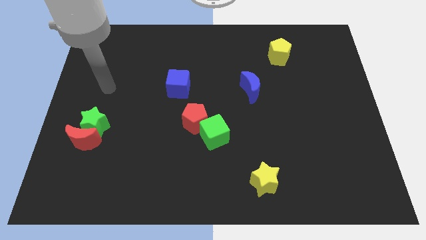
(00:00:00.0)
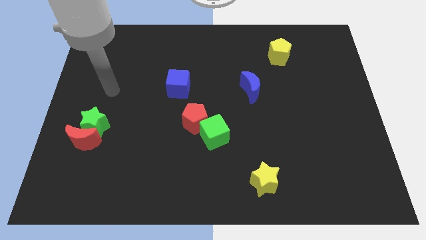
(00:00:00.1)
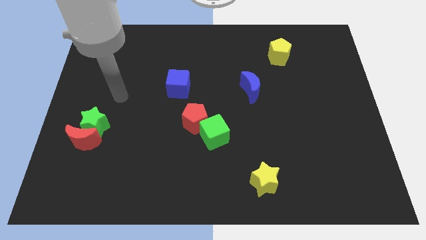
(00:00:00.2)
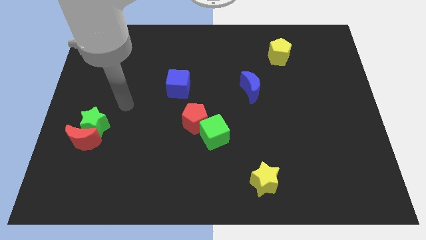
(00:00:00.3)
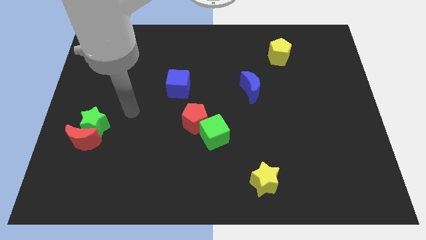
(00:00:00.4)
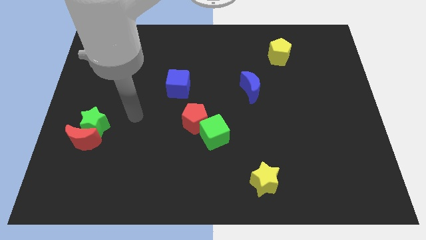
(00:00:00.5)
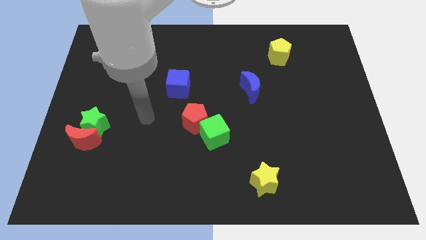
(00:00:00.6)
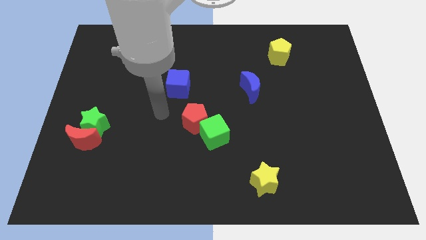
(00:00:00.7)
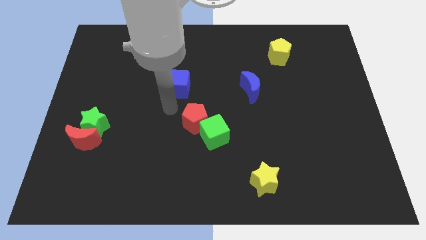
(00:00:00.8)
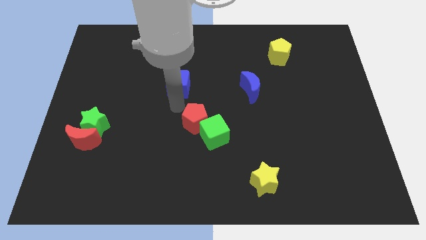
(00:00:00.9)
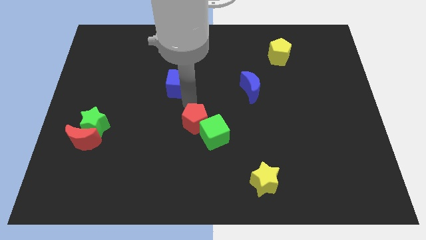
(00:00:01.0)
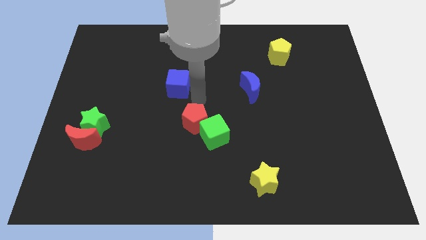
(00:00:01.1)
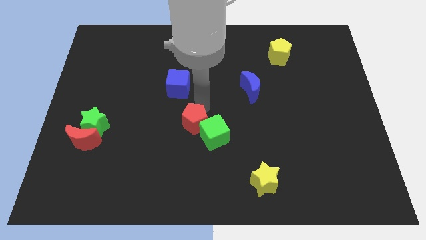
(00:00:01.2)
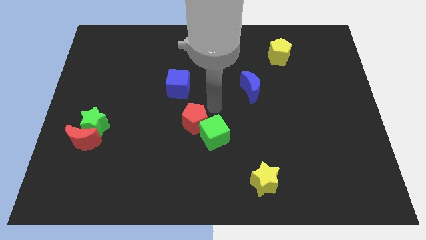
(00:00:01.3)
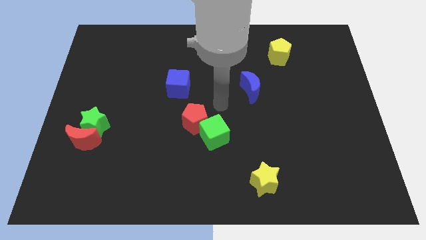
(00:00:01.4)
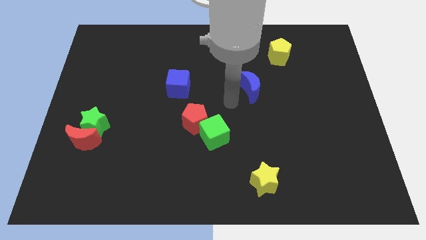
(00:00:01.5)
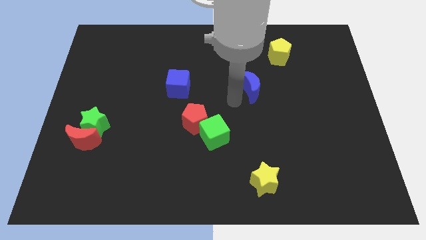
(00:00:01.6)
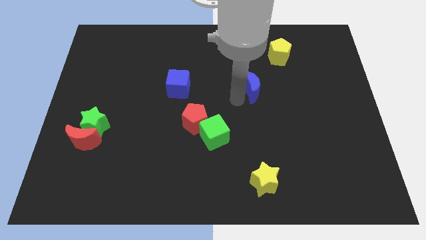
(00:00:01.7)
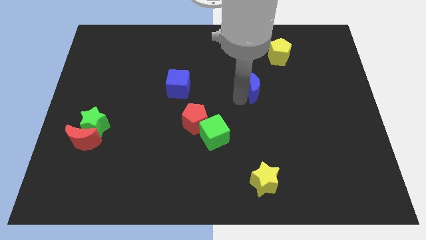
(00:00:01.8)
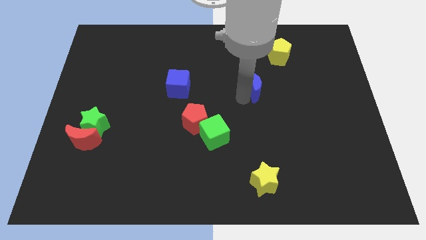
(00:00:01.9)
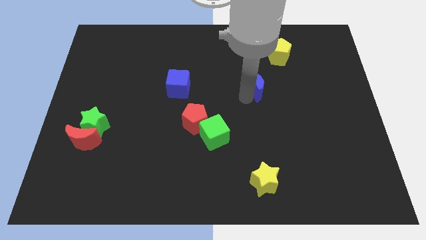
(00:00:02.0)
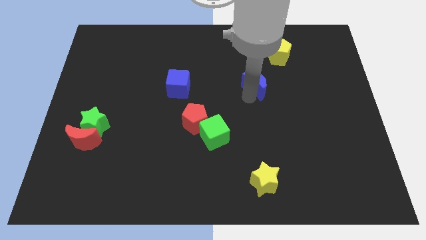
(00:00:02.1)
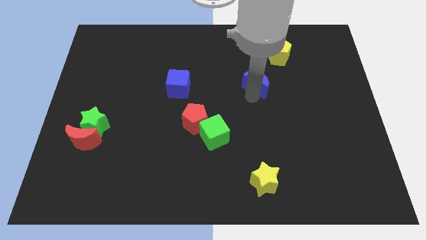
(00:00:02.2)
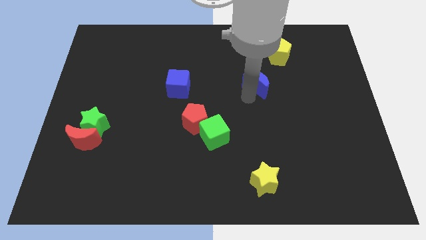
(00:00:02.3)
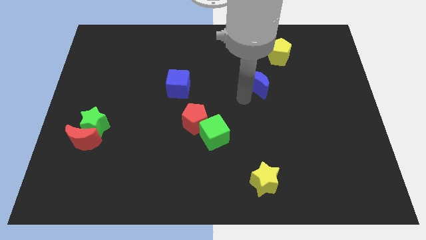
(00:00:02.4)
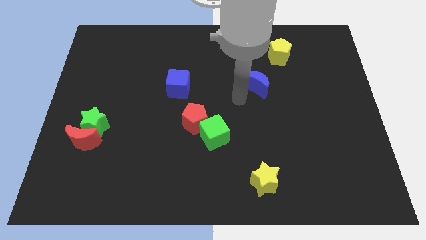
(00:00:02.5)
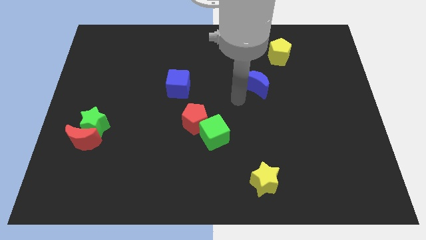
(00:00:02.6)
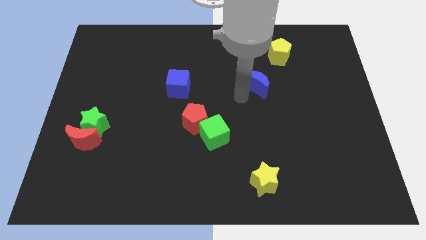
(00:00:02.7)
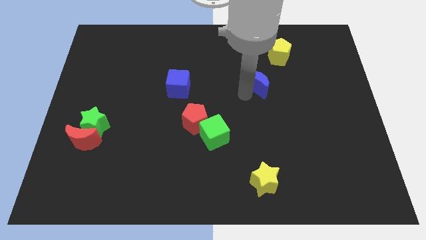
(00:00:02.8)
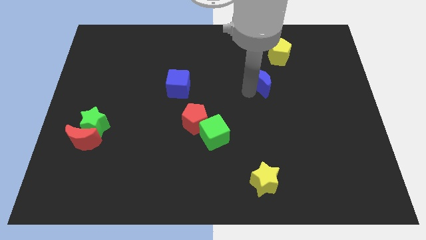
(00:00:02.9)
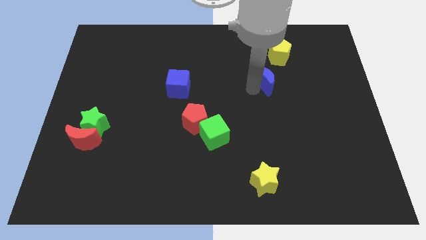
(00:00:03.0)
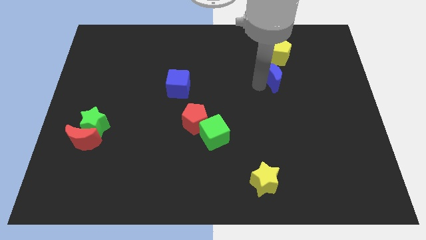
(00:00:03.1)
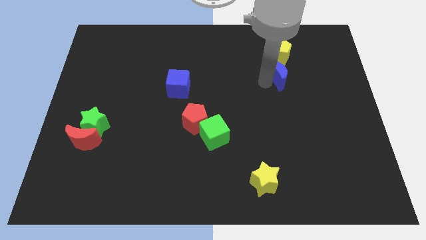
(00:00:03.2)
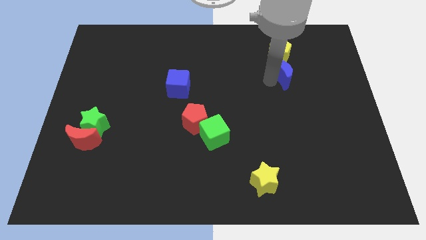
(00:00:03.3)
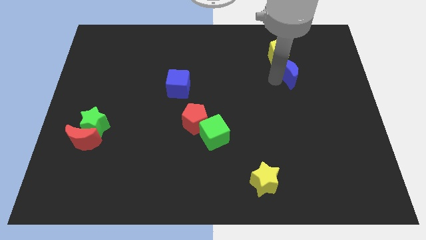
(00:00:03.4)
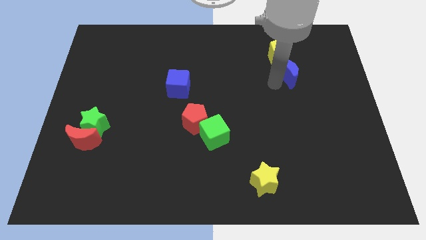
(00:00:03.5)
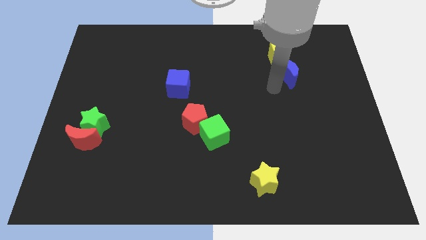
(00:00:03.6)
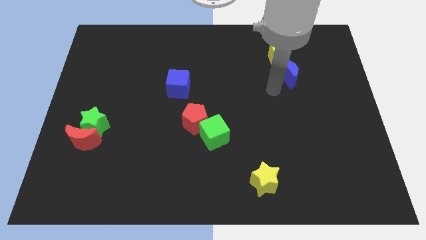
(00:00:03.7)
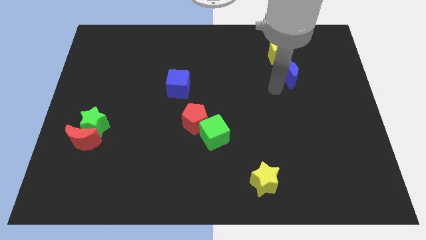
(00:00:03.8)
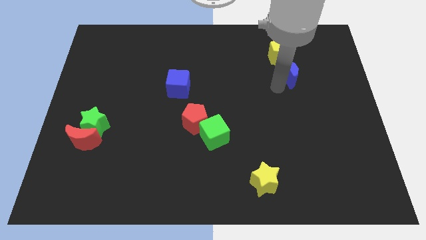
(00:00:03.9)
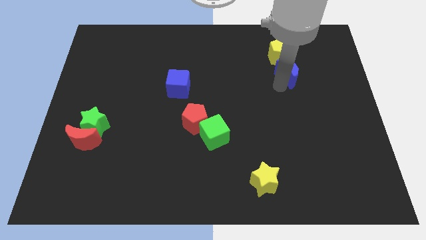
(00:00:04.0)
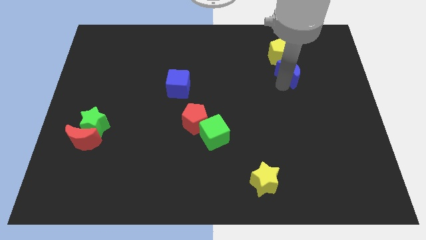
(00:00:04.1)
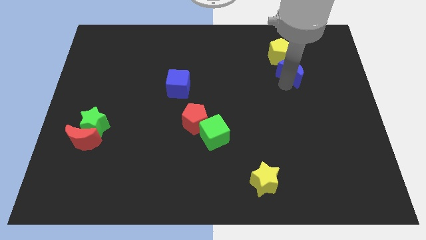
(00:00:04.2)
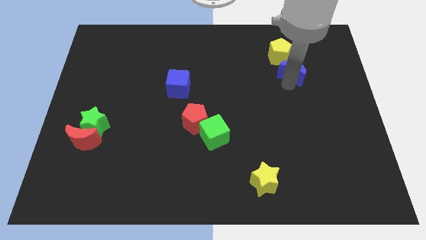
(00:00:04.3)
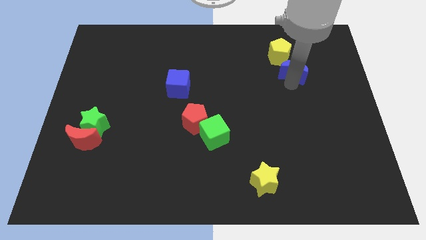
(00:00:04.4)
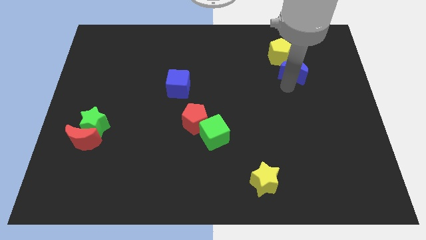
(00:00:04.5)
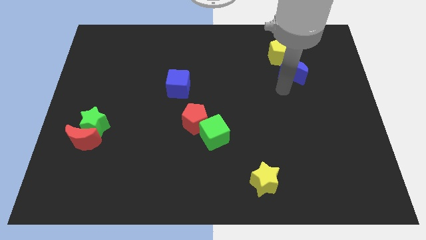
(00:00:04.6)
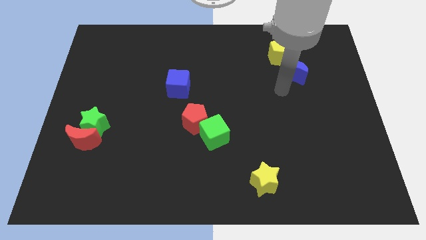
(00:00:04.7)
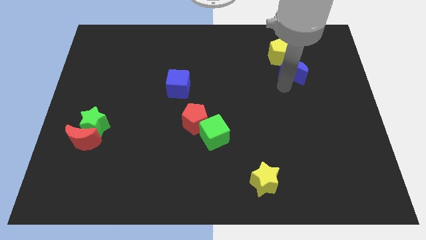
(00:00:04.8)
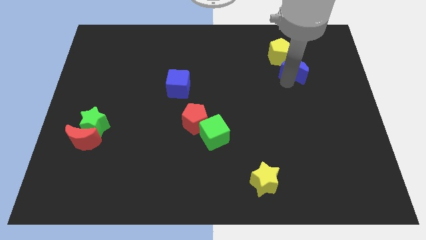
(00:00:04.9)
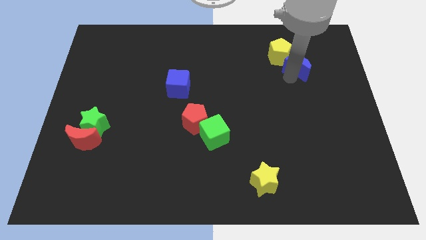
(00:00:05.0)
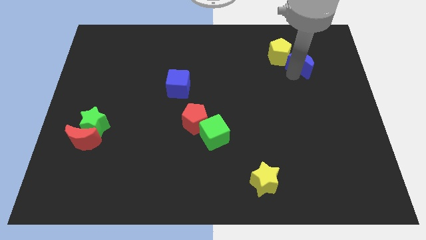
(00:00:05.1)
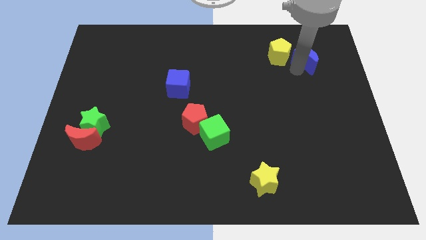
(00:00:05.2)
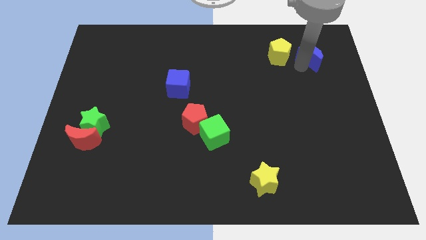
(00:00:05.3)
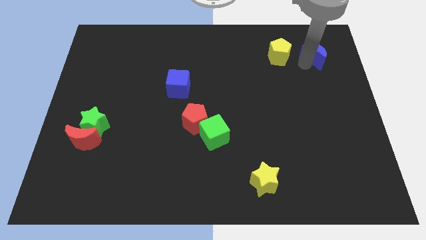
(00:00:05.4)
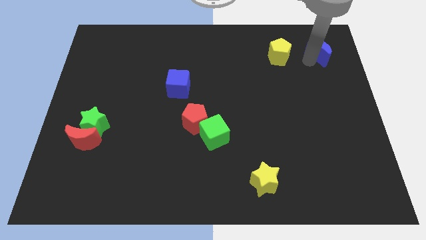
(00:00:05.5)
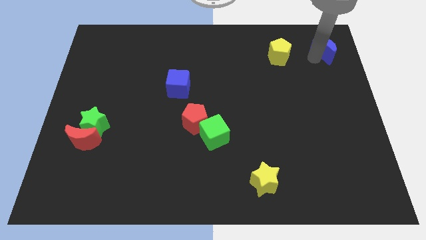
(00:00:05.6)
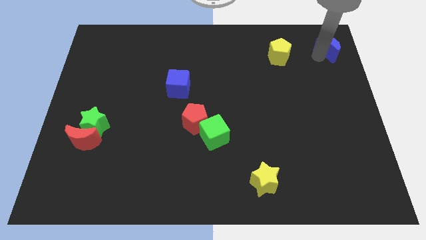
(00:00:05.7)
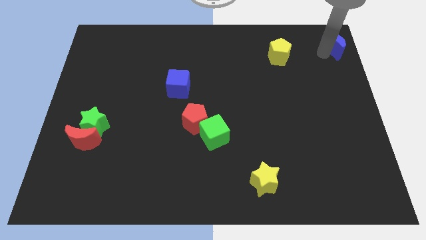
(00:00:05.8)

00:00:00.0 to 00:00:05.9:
push the blue moon to the top right

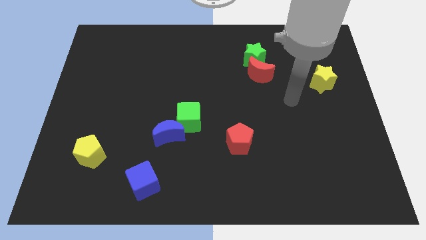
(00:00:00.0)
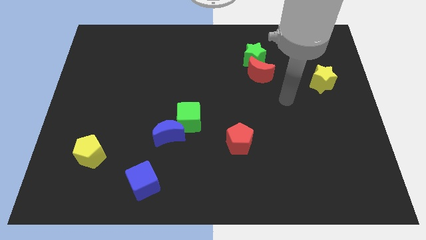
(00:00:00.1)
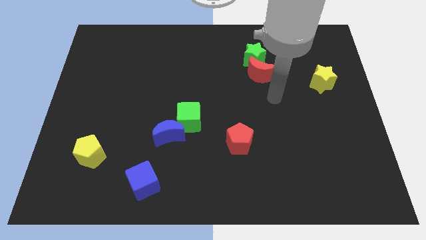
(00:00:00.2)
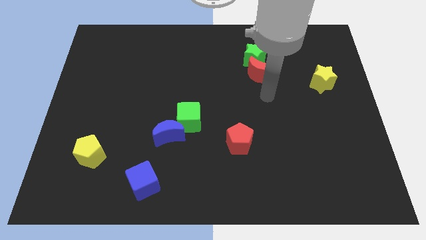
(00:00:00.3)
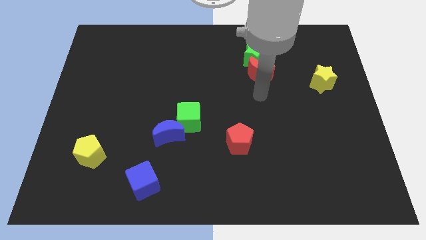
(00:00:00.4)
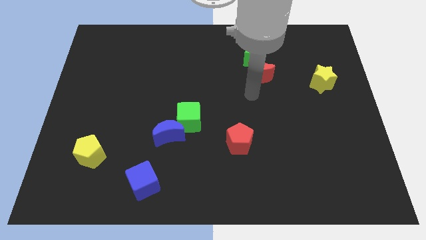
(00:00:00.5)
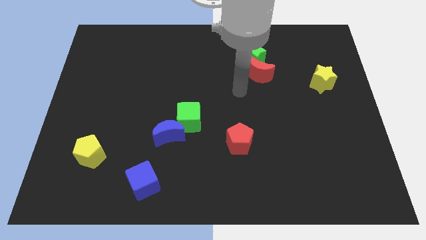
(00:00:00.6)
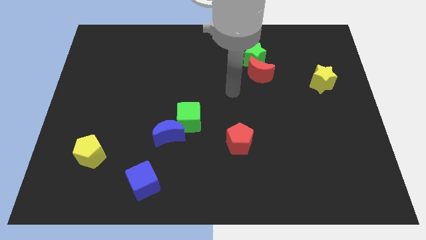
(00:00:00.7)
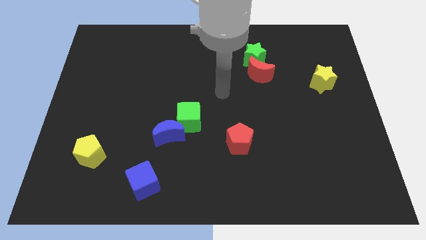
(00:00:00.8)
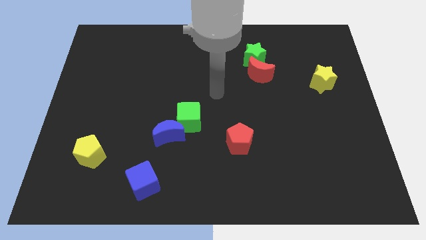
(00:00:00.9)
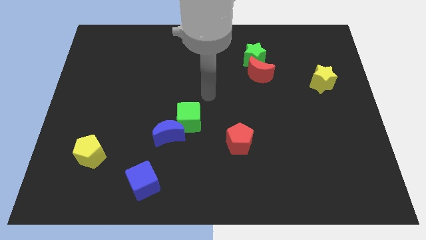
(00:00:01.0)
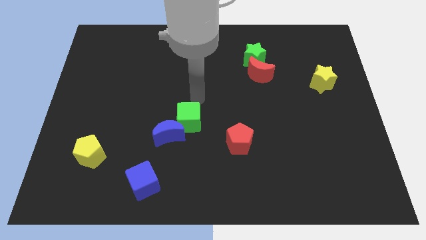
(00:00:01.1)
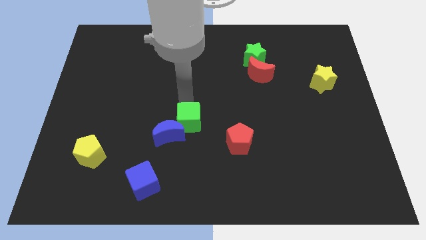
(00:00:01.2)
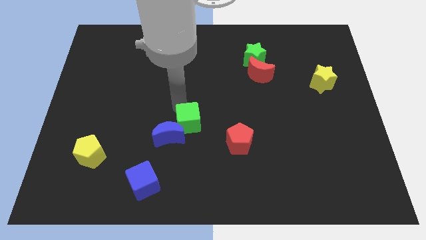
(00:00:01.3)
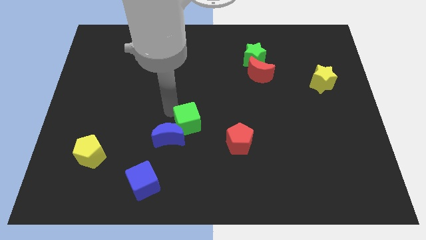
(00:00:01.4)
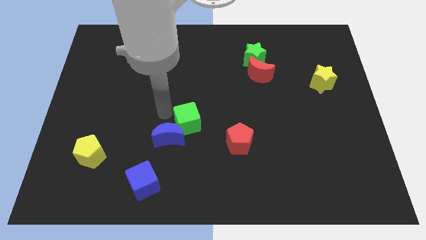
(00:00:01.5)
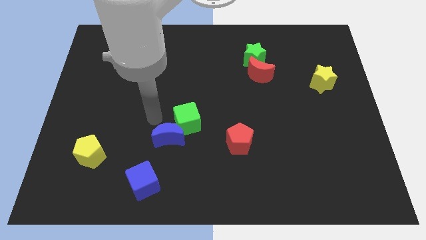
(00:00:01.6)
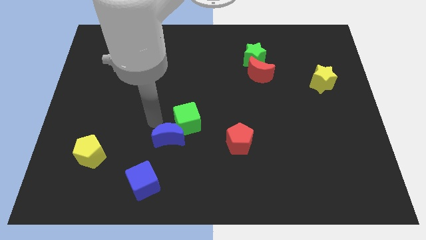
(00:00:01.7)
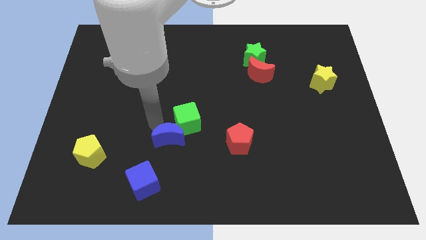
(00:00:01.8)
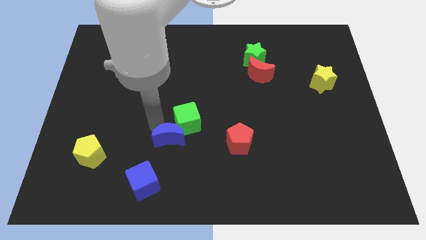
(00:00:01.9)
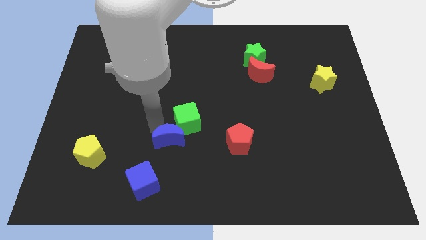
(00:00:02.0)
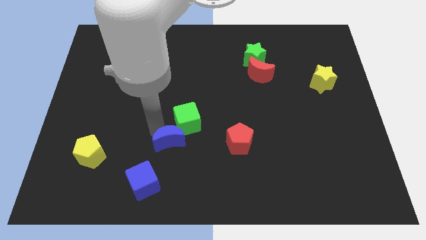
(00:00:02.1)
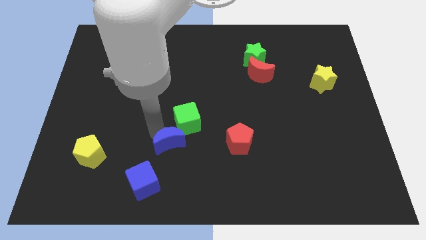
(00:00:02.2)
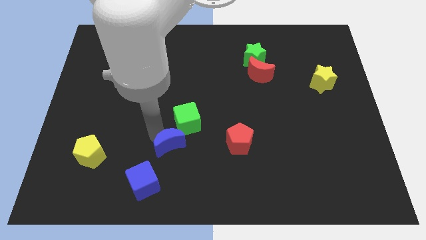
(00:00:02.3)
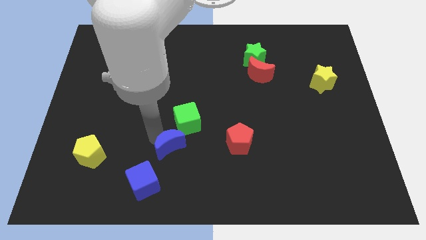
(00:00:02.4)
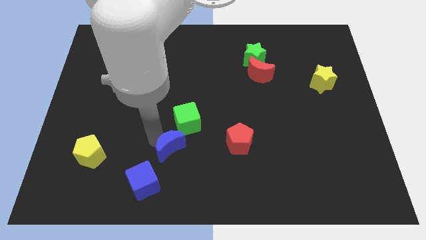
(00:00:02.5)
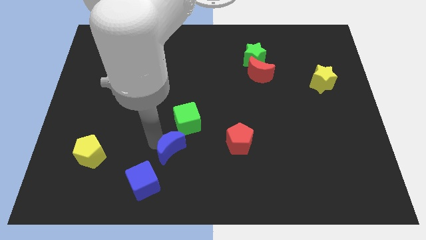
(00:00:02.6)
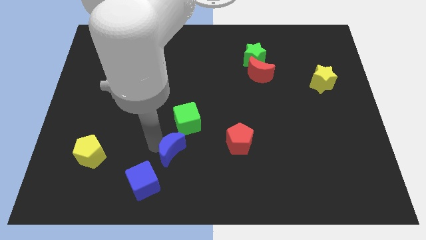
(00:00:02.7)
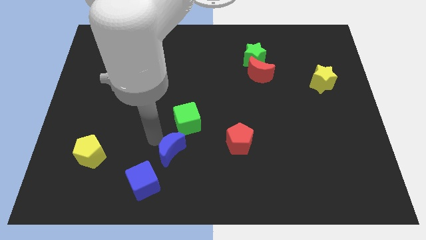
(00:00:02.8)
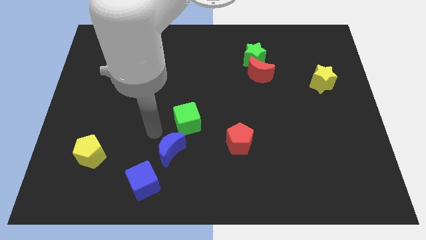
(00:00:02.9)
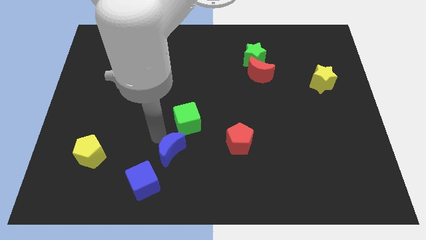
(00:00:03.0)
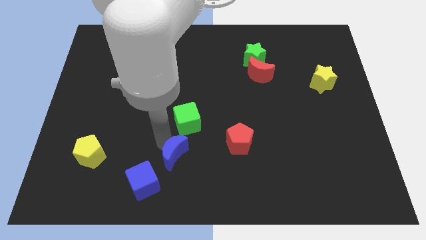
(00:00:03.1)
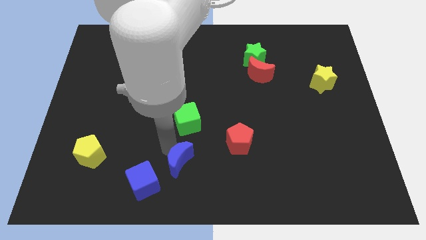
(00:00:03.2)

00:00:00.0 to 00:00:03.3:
push the blue moon to the bottom
